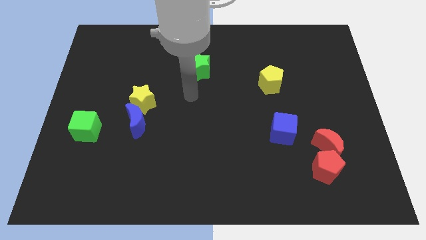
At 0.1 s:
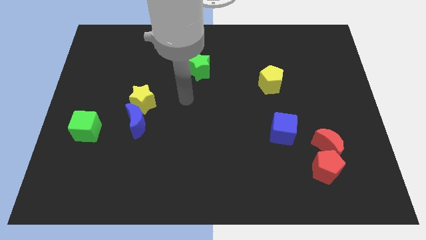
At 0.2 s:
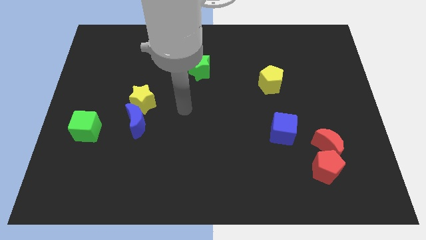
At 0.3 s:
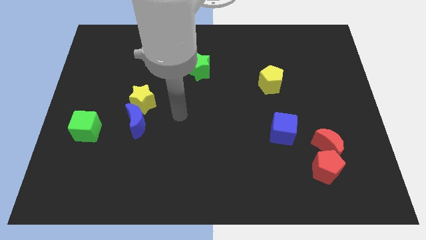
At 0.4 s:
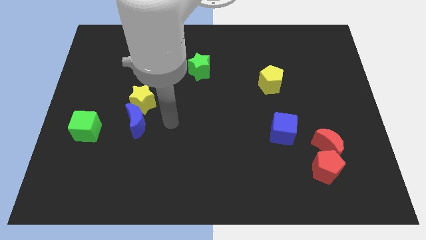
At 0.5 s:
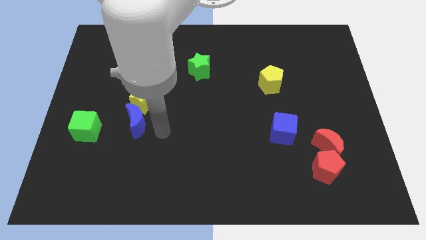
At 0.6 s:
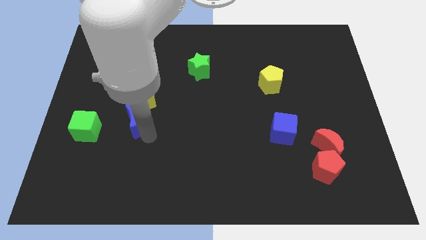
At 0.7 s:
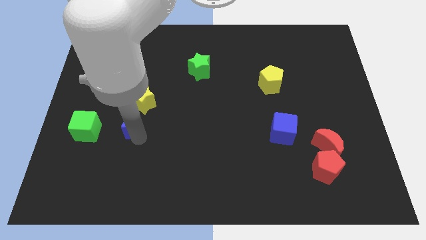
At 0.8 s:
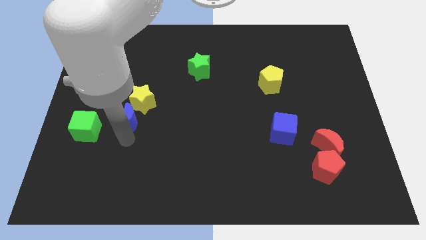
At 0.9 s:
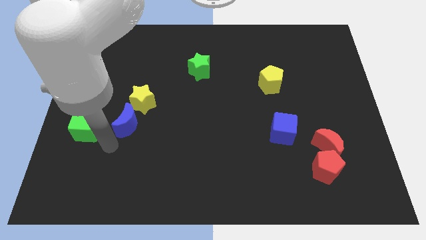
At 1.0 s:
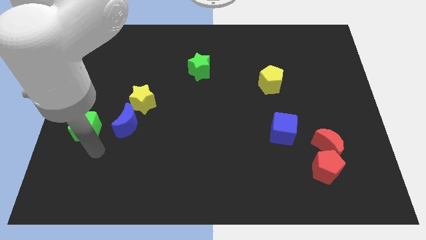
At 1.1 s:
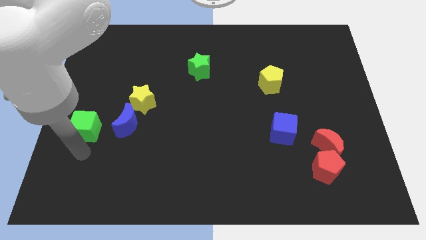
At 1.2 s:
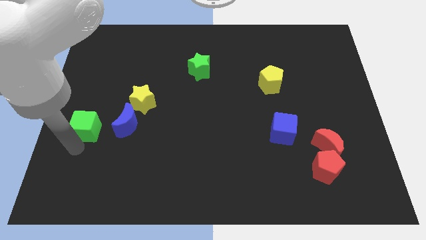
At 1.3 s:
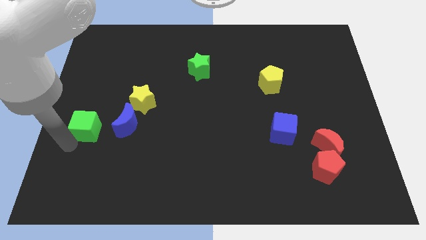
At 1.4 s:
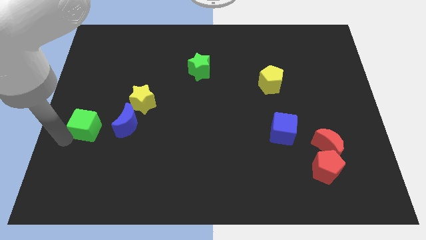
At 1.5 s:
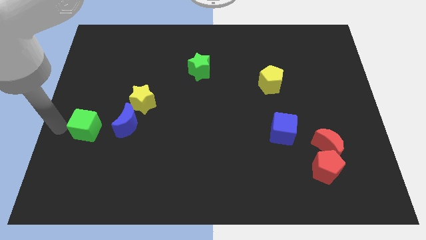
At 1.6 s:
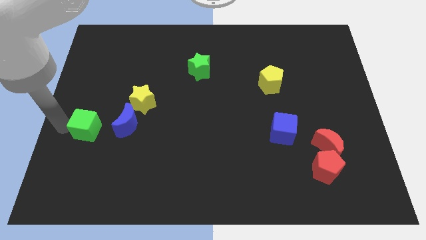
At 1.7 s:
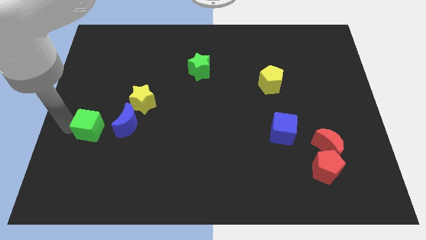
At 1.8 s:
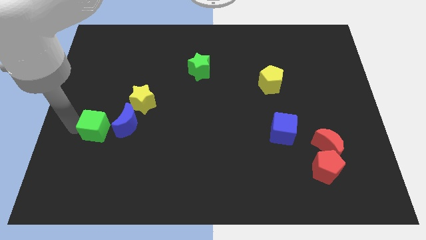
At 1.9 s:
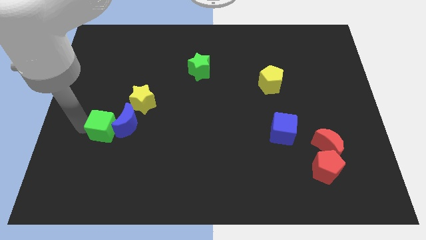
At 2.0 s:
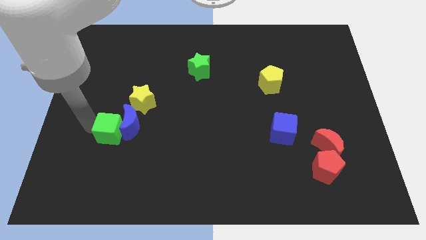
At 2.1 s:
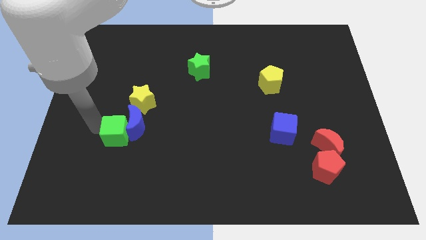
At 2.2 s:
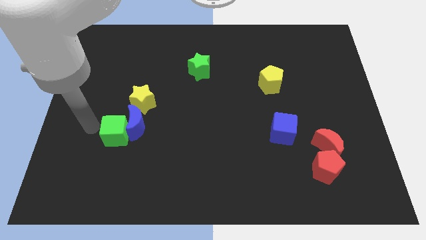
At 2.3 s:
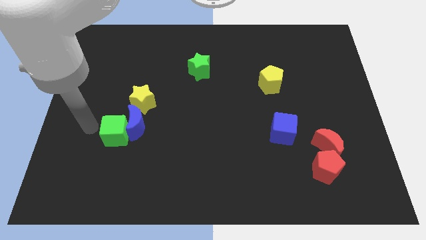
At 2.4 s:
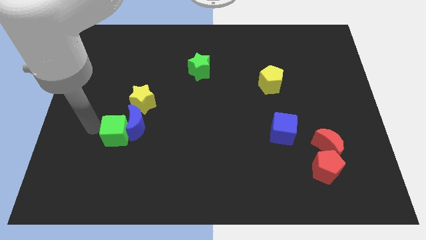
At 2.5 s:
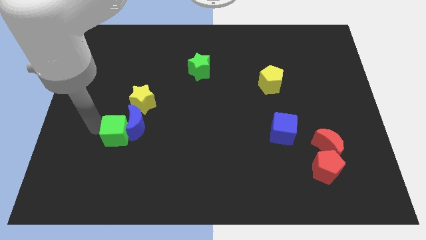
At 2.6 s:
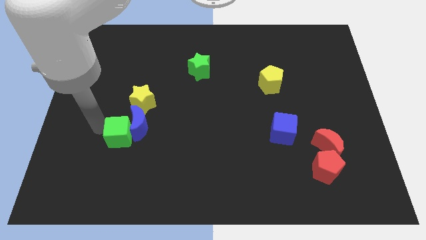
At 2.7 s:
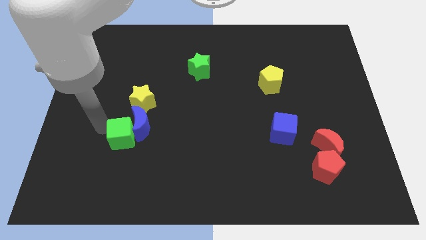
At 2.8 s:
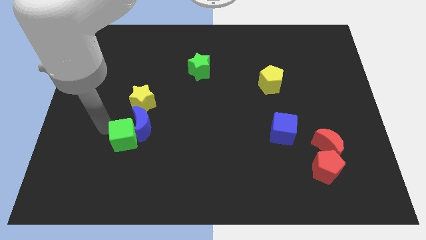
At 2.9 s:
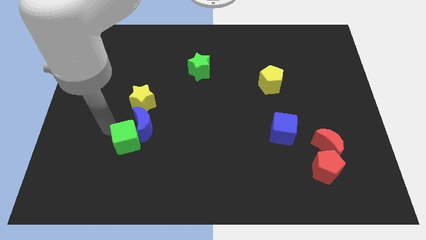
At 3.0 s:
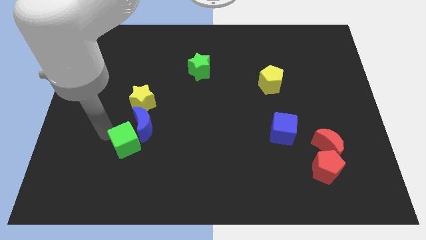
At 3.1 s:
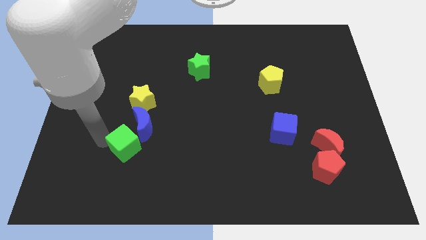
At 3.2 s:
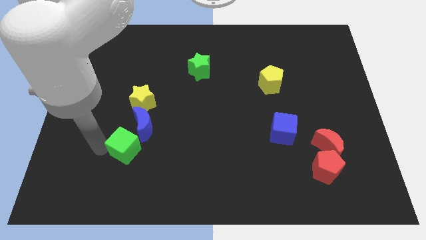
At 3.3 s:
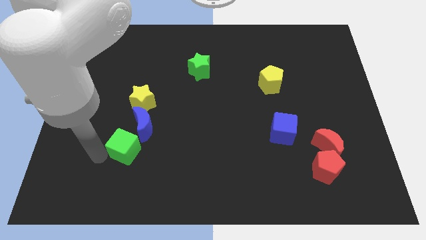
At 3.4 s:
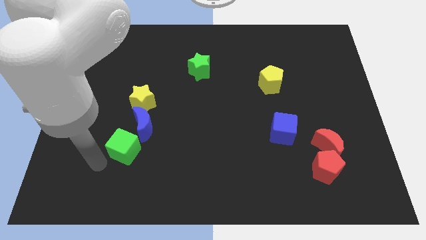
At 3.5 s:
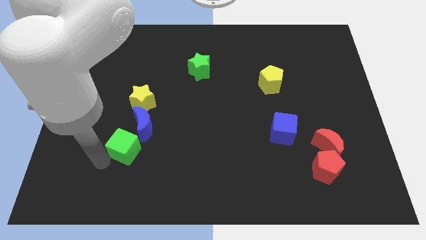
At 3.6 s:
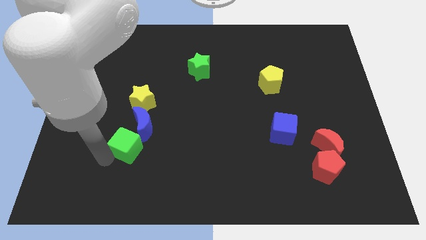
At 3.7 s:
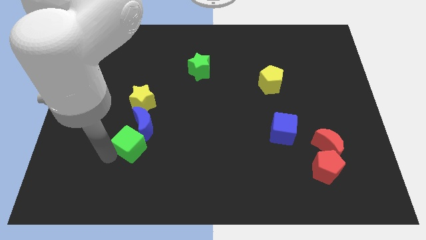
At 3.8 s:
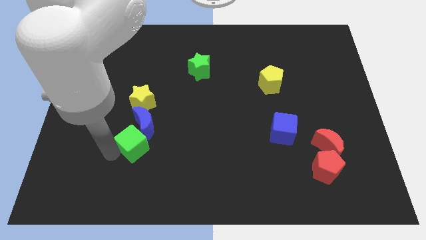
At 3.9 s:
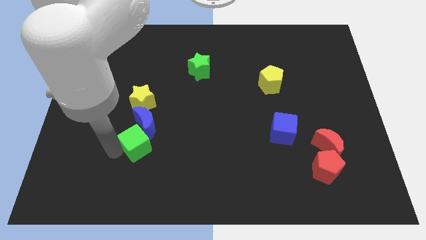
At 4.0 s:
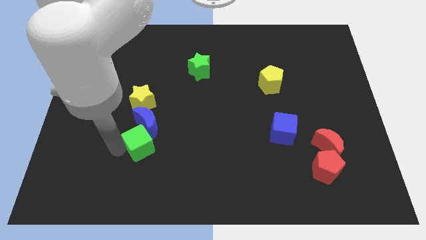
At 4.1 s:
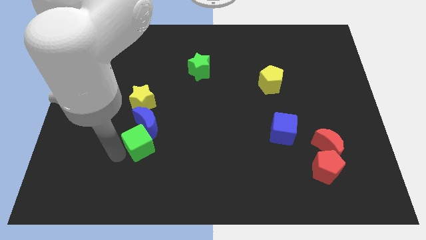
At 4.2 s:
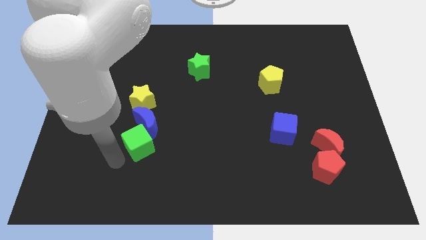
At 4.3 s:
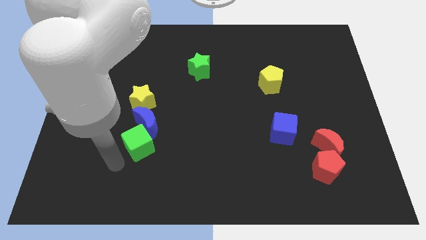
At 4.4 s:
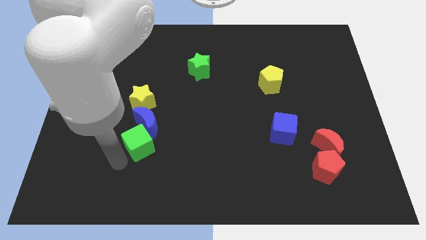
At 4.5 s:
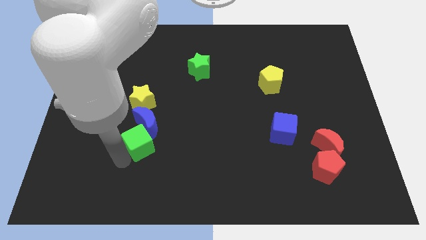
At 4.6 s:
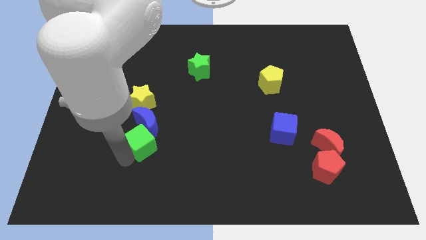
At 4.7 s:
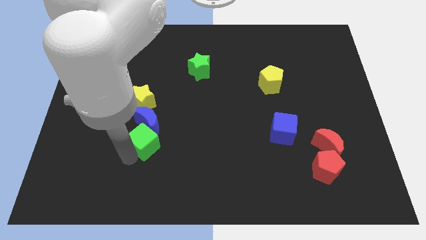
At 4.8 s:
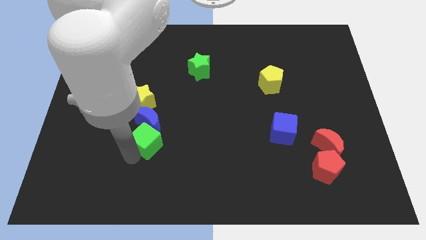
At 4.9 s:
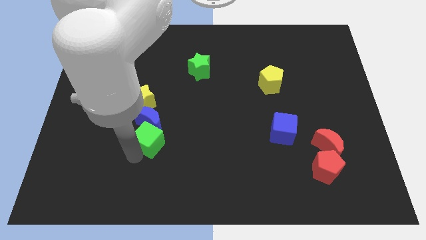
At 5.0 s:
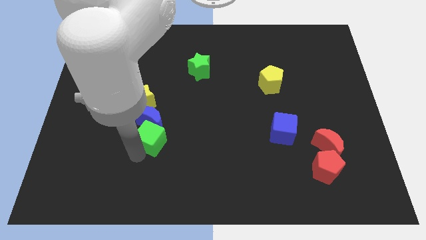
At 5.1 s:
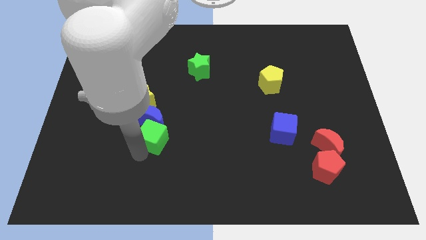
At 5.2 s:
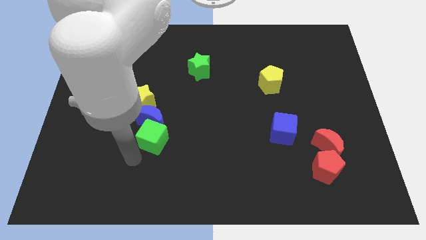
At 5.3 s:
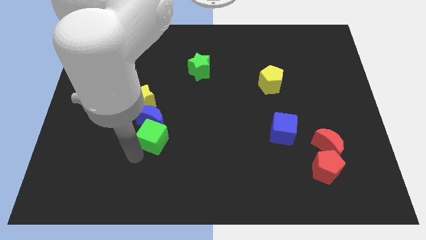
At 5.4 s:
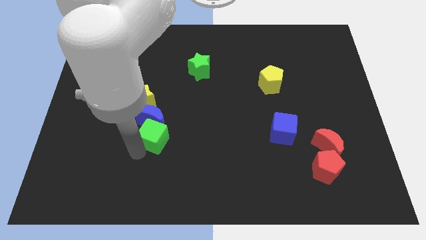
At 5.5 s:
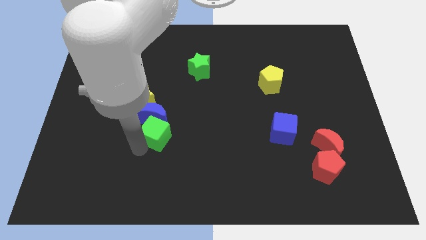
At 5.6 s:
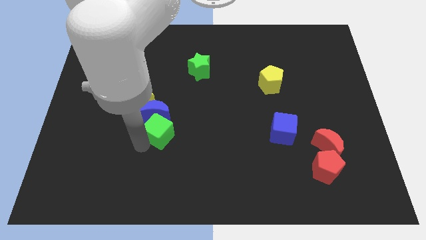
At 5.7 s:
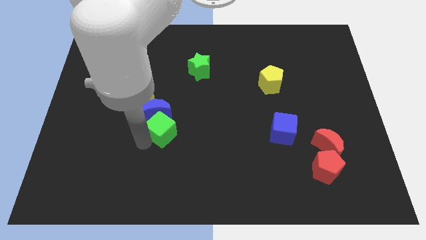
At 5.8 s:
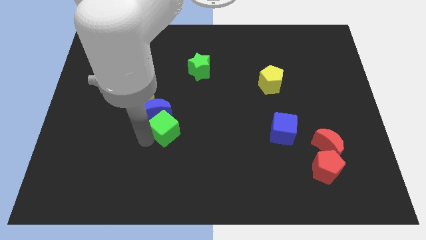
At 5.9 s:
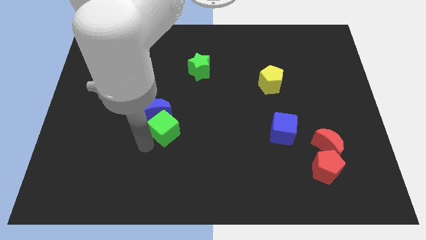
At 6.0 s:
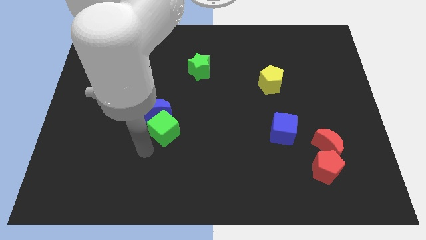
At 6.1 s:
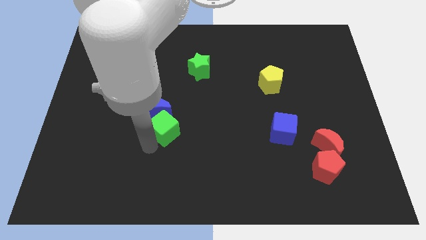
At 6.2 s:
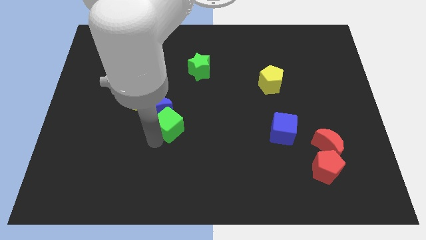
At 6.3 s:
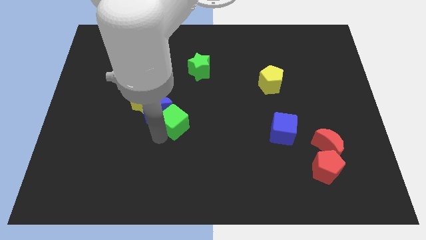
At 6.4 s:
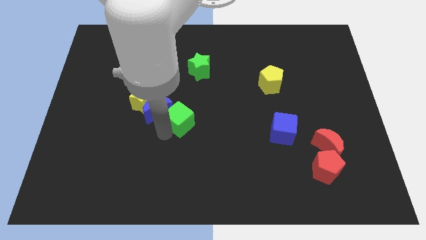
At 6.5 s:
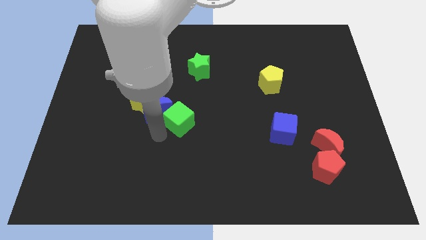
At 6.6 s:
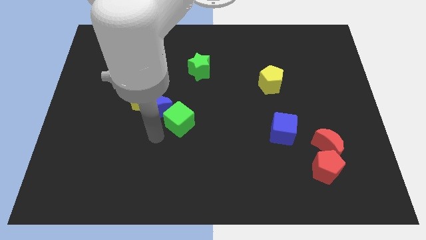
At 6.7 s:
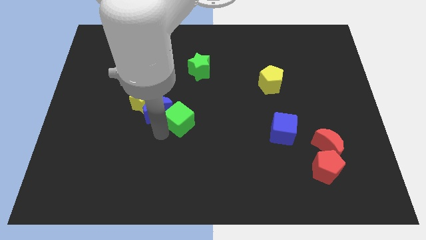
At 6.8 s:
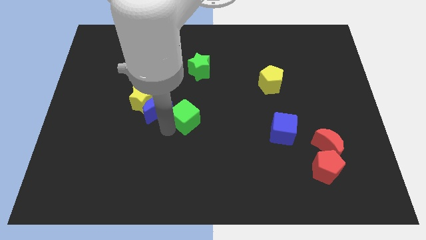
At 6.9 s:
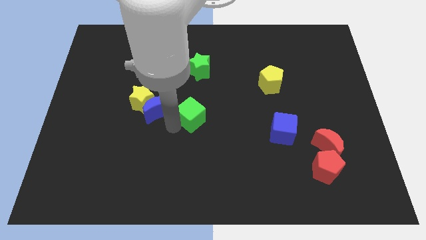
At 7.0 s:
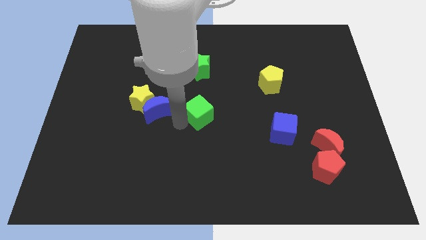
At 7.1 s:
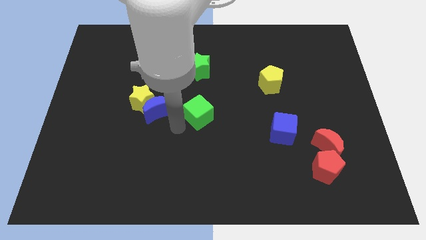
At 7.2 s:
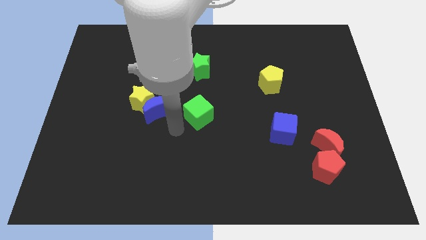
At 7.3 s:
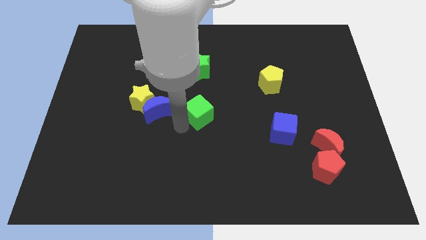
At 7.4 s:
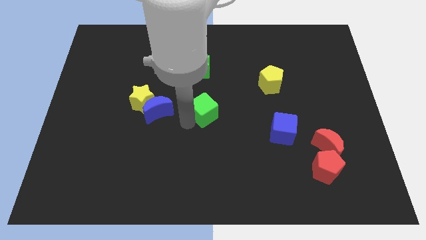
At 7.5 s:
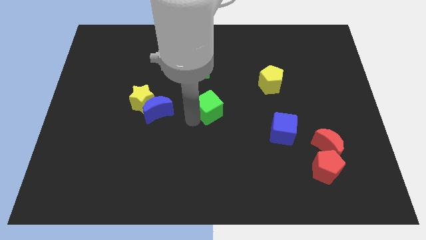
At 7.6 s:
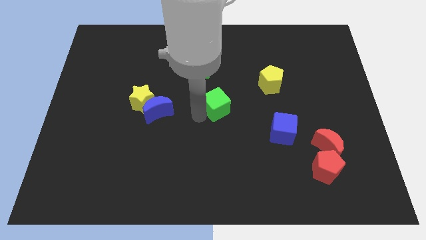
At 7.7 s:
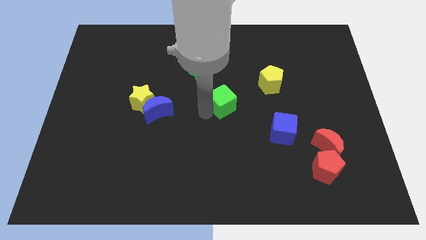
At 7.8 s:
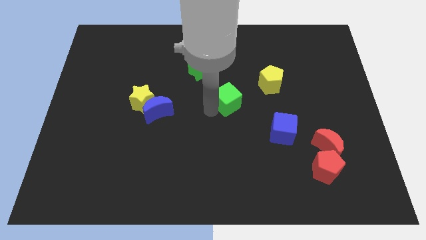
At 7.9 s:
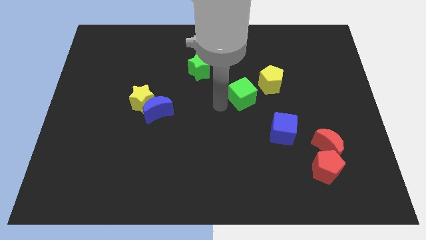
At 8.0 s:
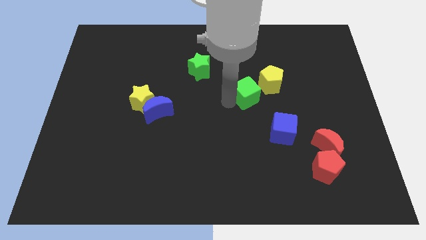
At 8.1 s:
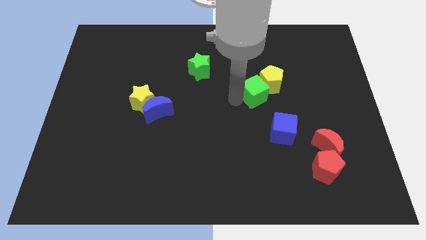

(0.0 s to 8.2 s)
move the green cube towards the yellow pentagon
